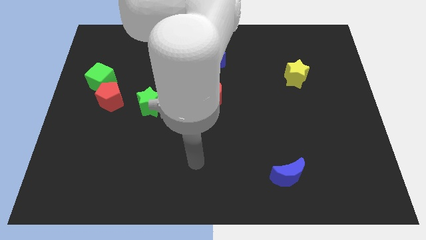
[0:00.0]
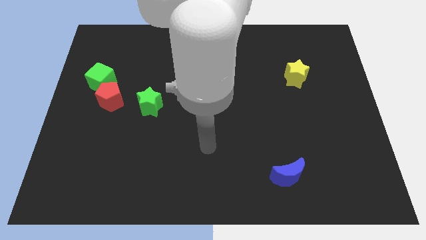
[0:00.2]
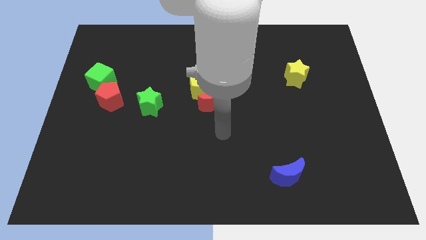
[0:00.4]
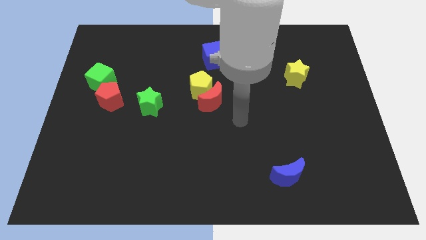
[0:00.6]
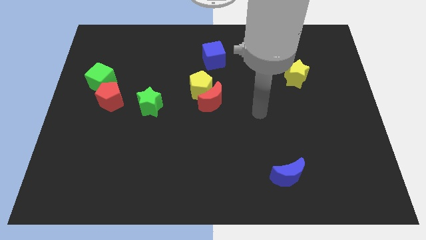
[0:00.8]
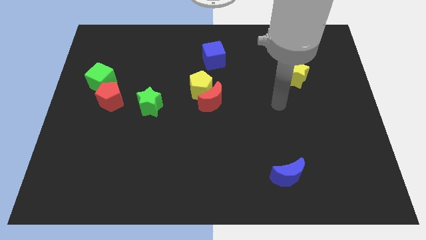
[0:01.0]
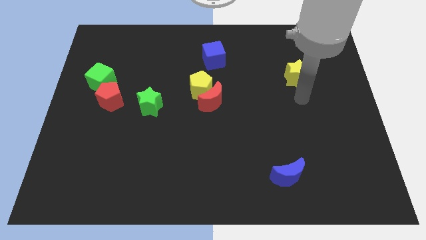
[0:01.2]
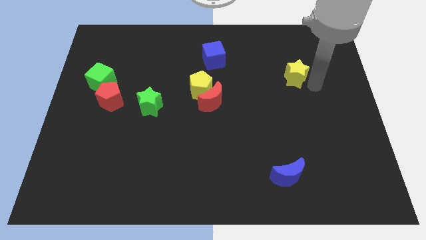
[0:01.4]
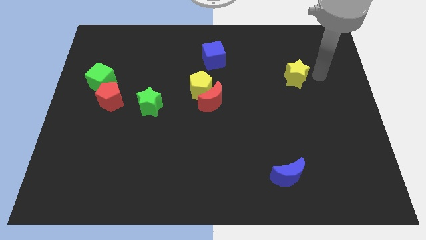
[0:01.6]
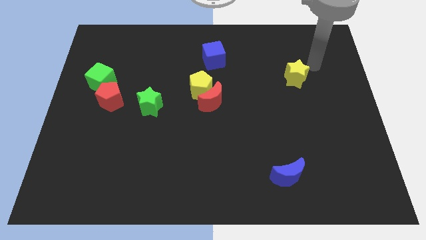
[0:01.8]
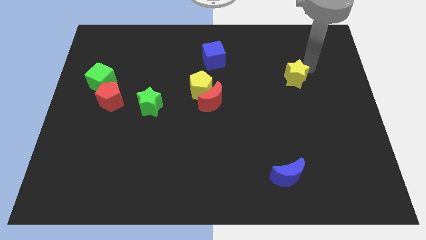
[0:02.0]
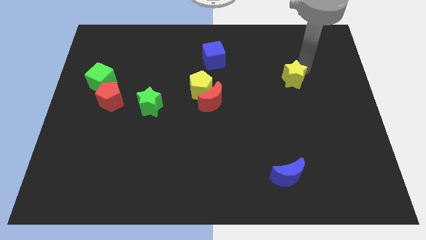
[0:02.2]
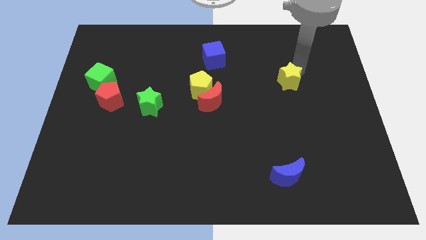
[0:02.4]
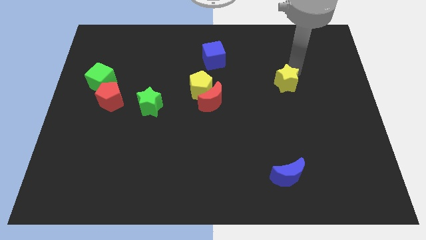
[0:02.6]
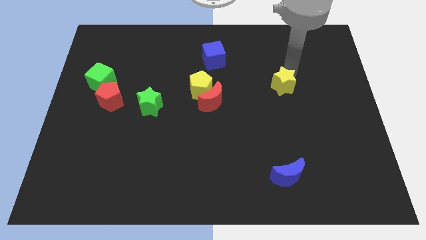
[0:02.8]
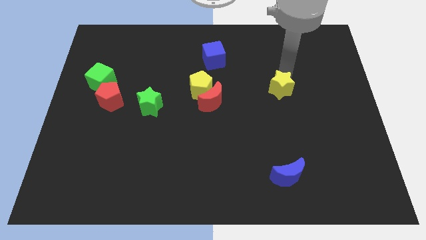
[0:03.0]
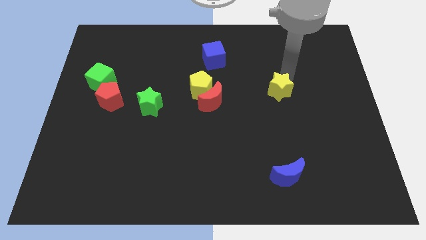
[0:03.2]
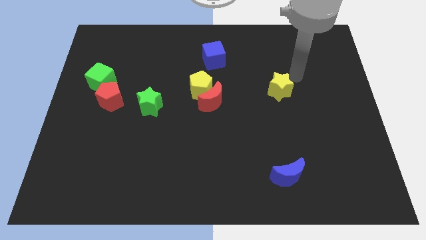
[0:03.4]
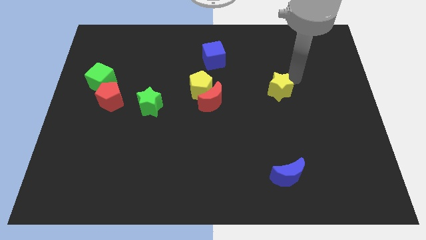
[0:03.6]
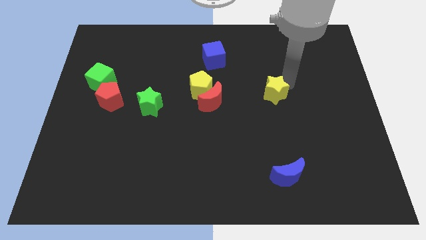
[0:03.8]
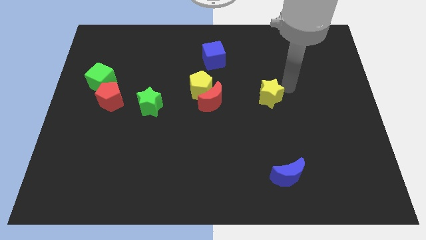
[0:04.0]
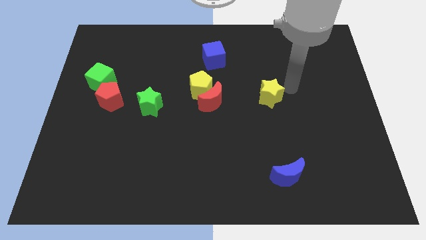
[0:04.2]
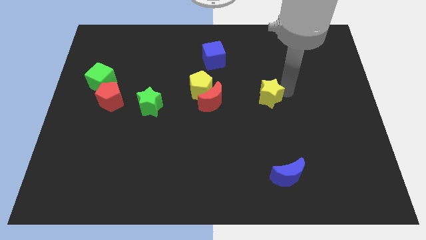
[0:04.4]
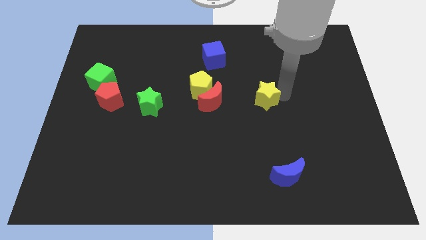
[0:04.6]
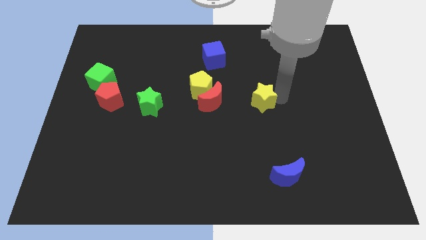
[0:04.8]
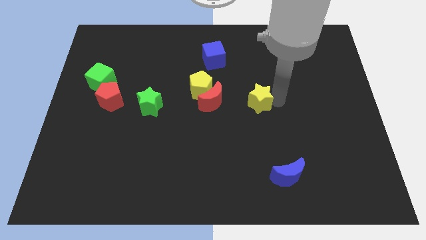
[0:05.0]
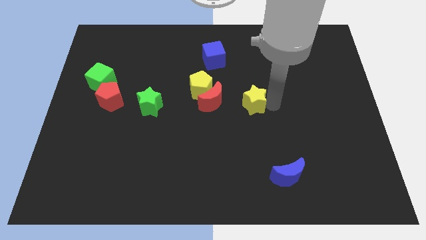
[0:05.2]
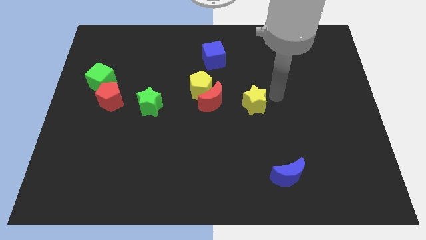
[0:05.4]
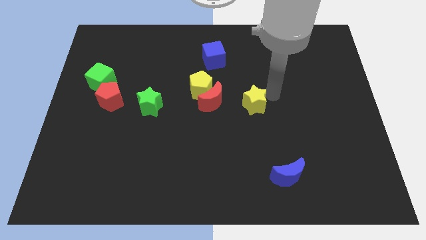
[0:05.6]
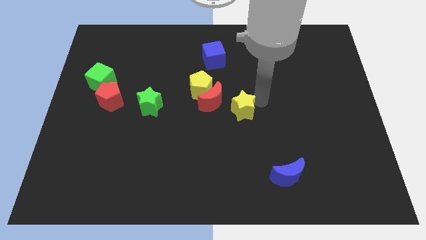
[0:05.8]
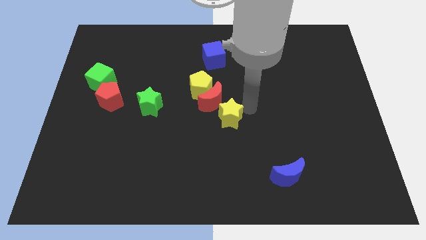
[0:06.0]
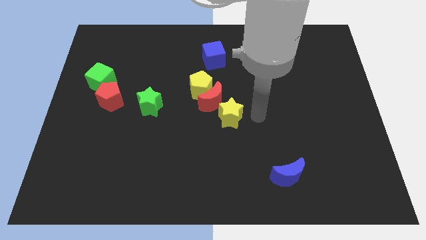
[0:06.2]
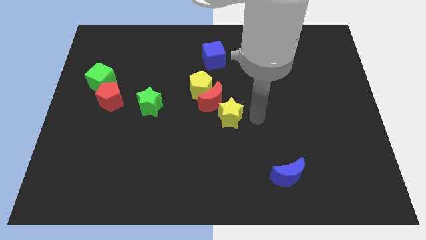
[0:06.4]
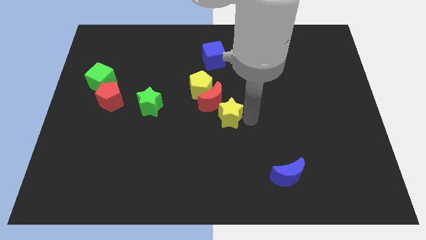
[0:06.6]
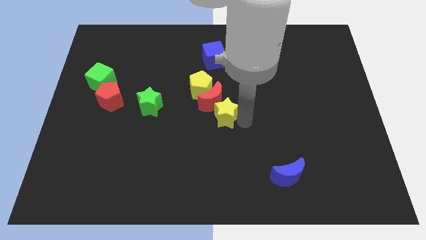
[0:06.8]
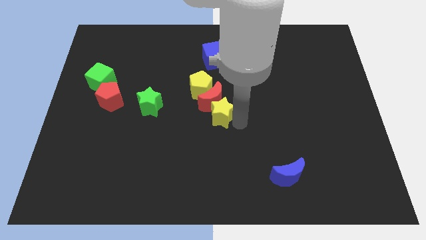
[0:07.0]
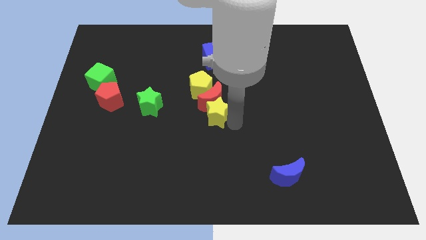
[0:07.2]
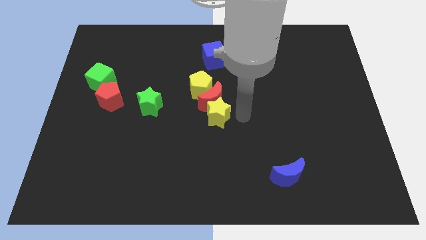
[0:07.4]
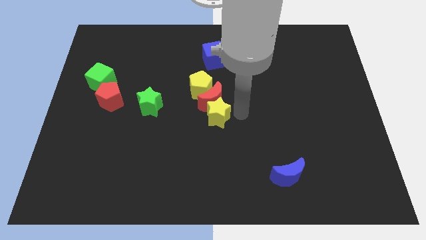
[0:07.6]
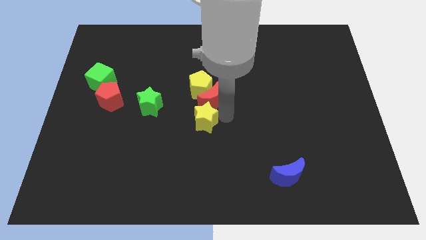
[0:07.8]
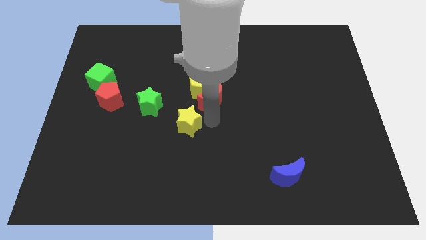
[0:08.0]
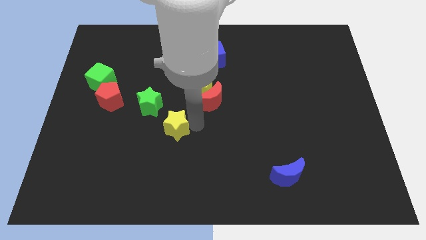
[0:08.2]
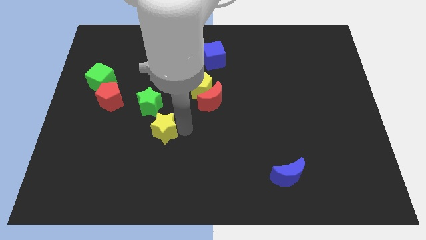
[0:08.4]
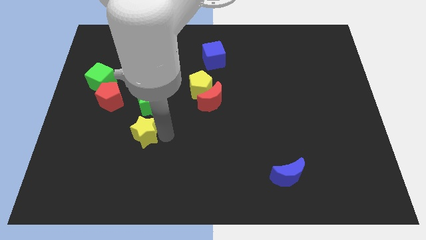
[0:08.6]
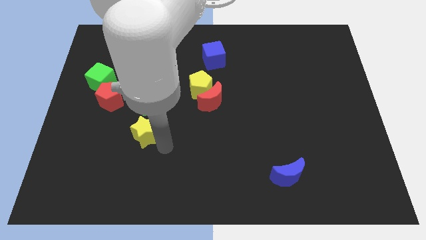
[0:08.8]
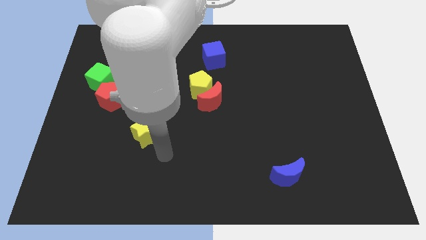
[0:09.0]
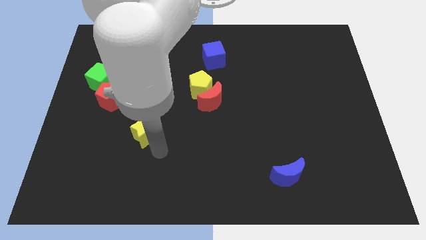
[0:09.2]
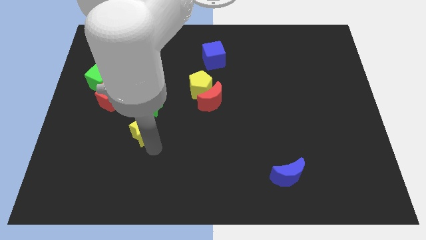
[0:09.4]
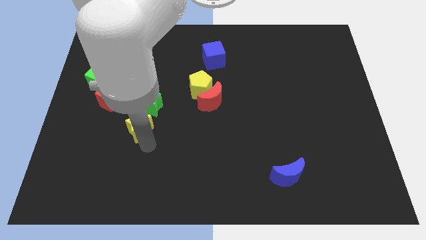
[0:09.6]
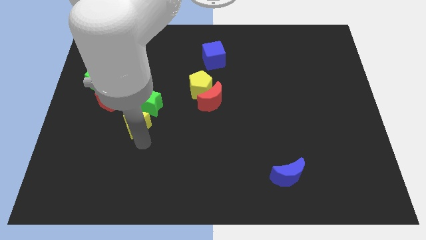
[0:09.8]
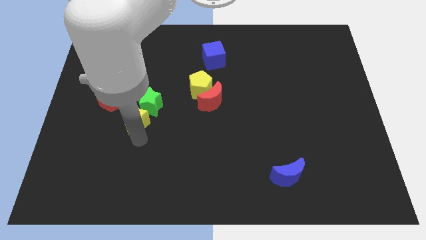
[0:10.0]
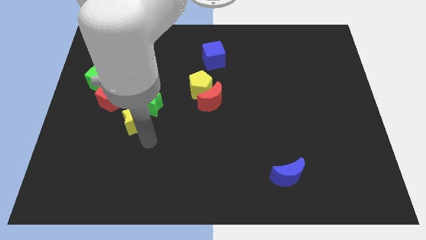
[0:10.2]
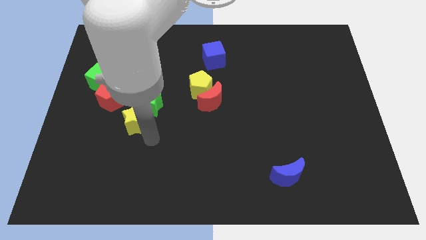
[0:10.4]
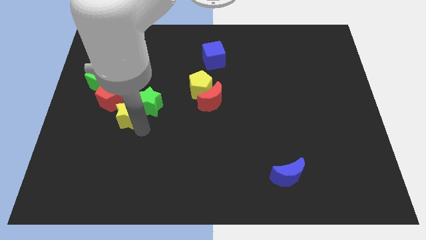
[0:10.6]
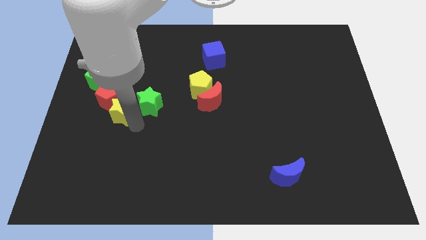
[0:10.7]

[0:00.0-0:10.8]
slide the yellow star to the bottom right side of the green cube

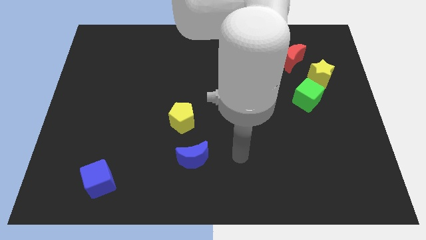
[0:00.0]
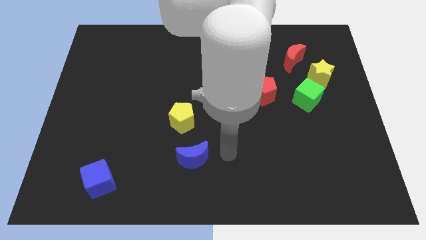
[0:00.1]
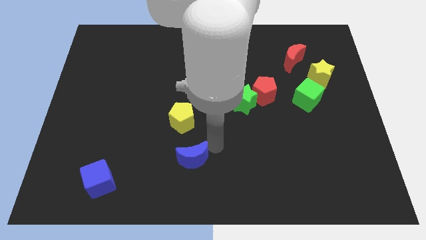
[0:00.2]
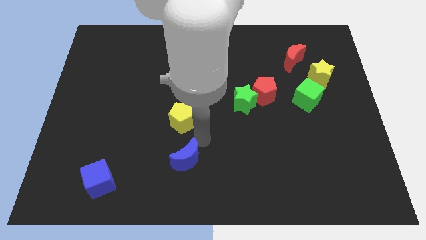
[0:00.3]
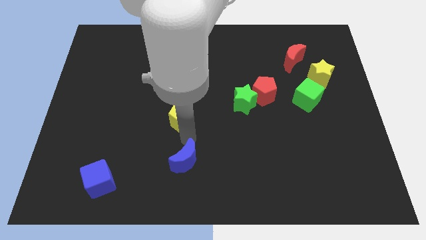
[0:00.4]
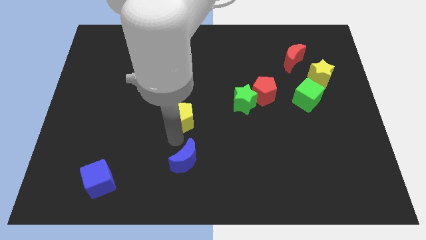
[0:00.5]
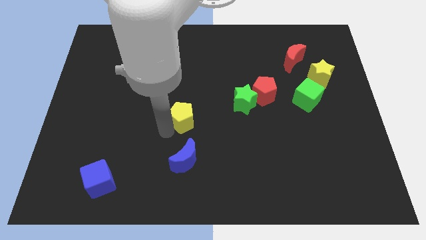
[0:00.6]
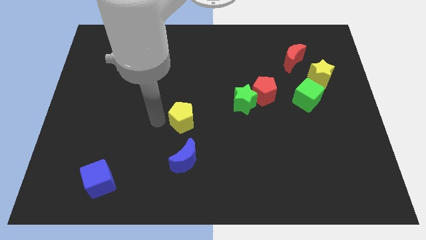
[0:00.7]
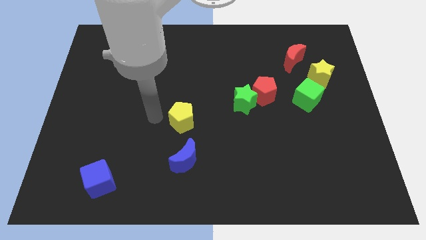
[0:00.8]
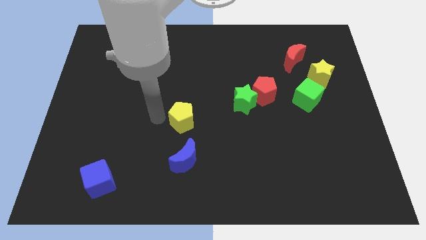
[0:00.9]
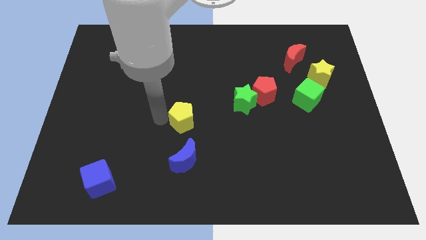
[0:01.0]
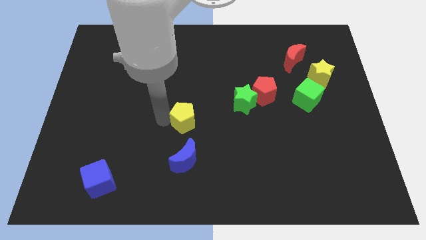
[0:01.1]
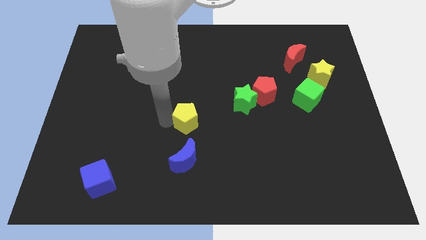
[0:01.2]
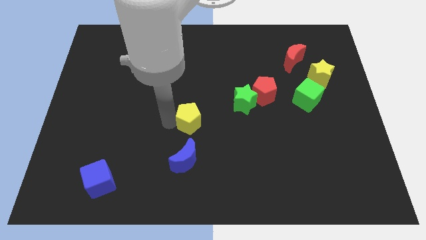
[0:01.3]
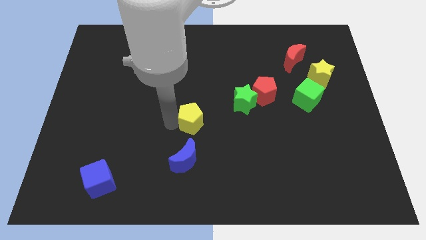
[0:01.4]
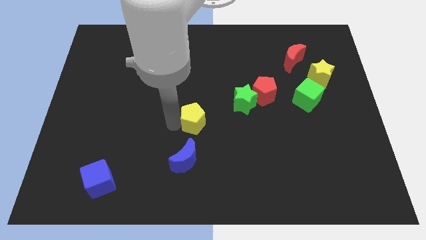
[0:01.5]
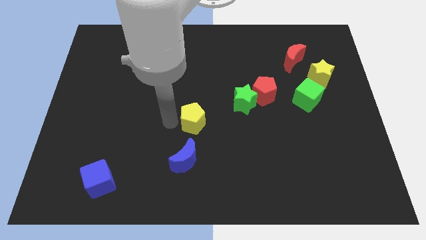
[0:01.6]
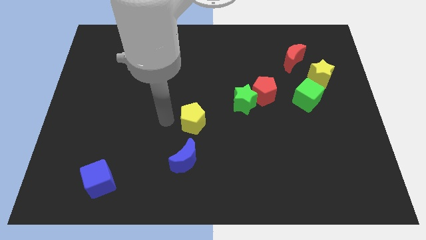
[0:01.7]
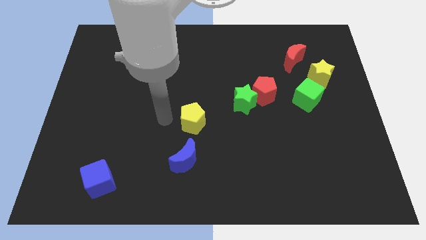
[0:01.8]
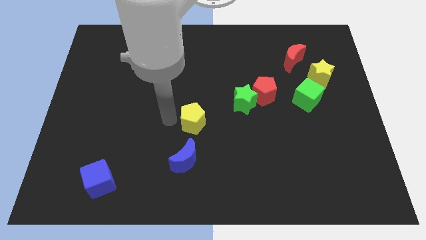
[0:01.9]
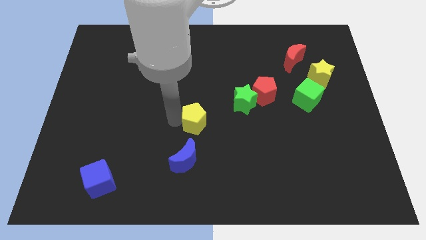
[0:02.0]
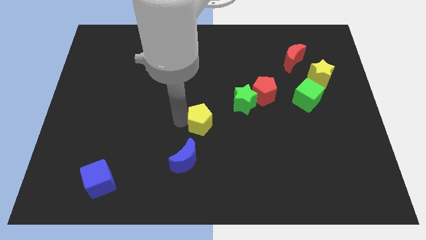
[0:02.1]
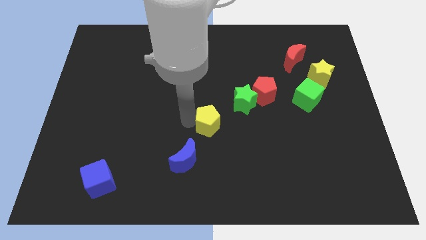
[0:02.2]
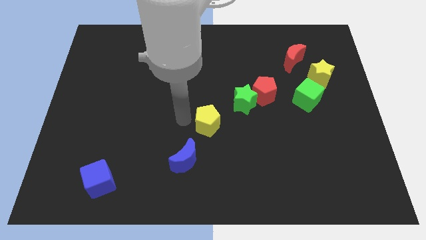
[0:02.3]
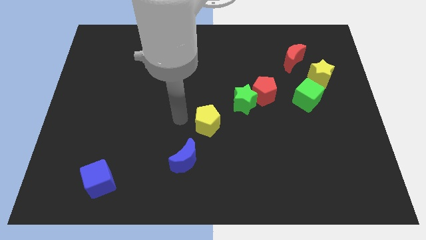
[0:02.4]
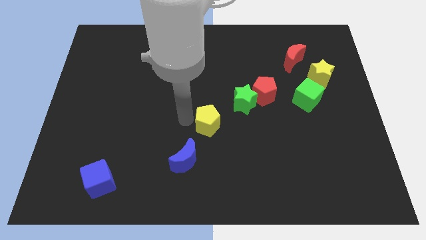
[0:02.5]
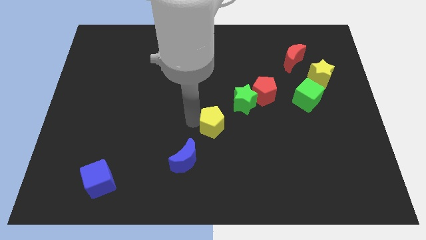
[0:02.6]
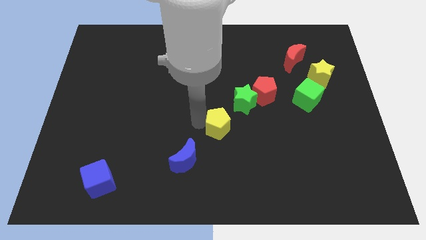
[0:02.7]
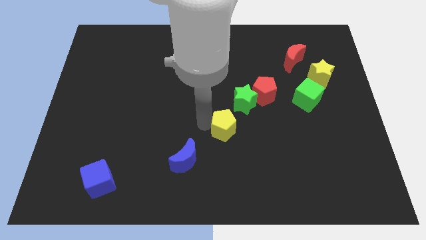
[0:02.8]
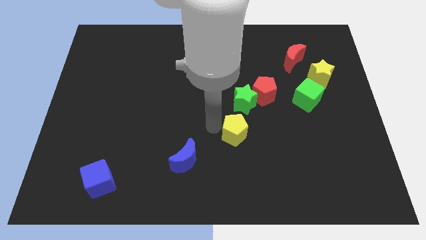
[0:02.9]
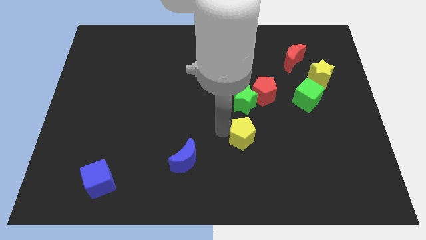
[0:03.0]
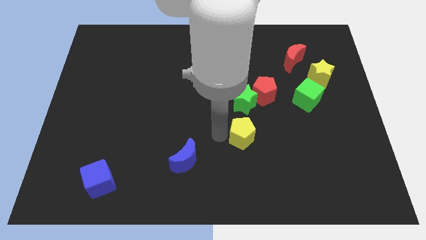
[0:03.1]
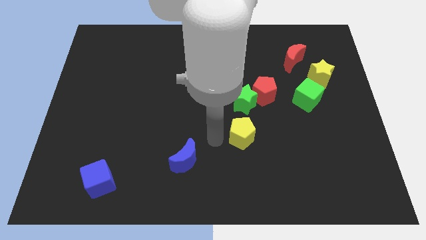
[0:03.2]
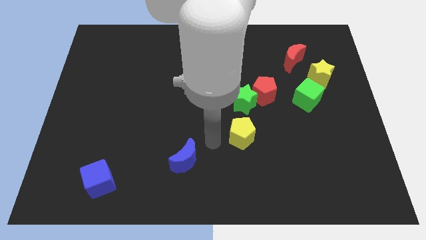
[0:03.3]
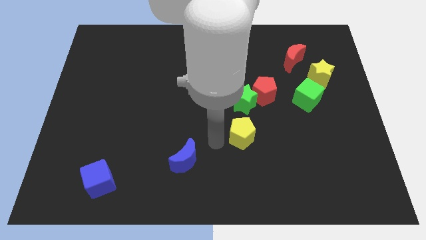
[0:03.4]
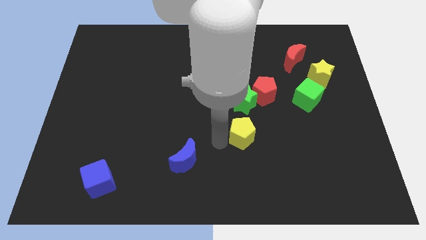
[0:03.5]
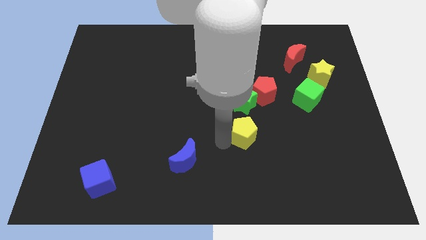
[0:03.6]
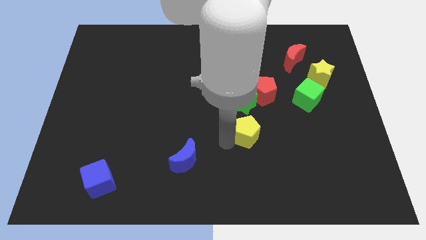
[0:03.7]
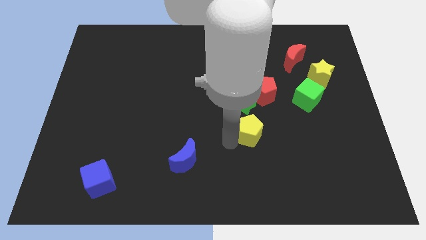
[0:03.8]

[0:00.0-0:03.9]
slide the yellow pentagon to the bottom side of the red pentagon
